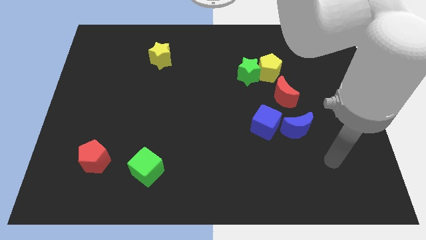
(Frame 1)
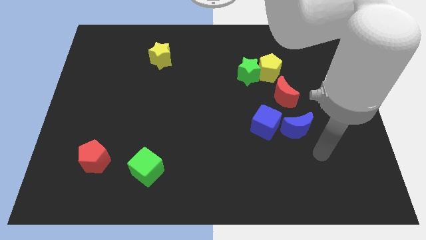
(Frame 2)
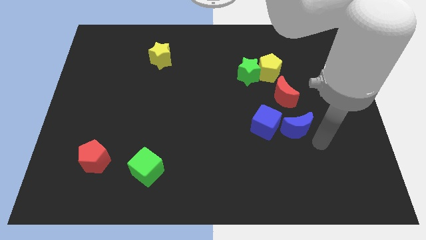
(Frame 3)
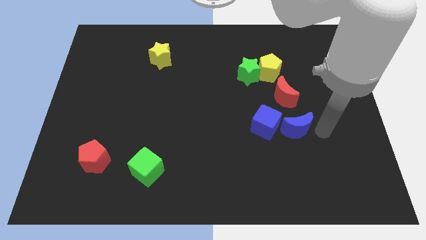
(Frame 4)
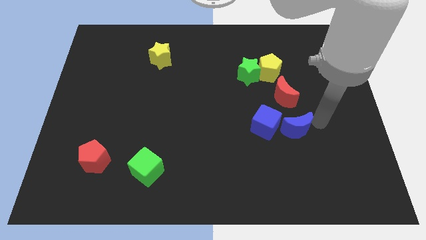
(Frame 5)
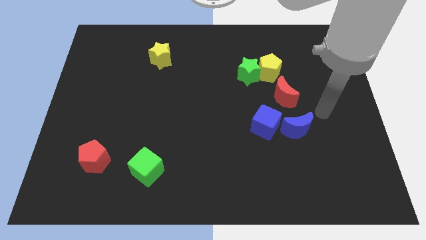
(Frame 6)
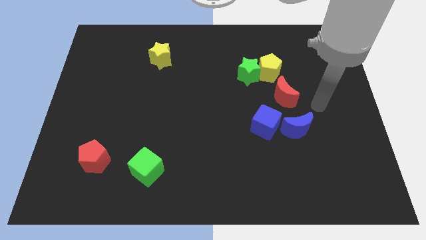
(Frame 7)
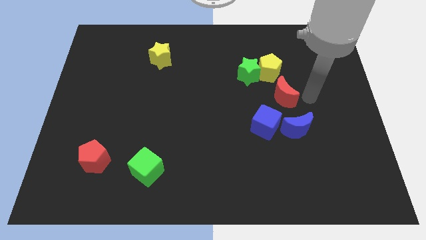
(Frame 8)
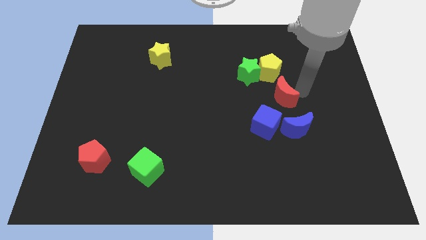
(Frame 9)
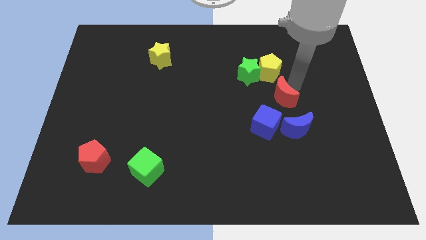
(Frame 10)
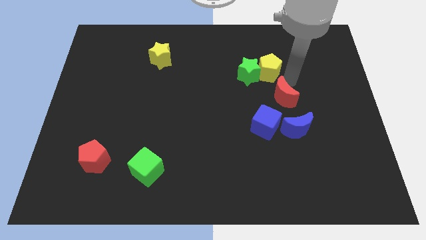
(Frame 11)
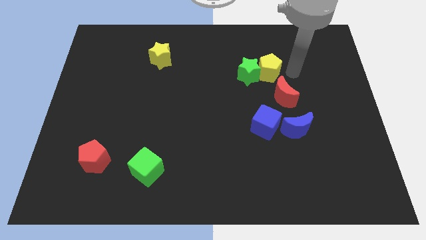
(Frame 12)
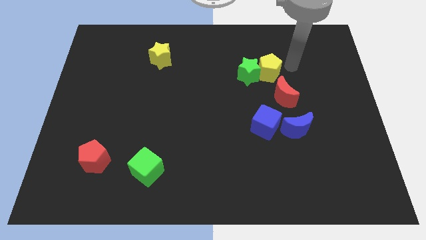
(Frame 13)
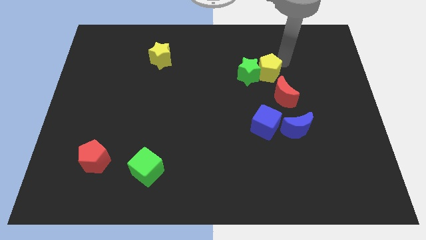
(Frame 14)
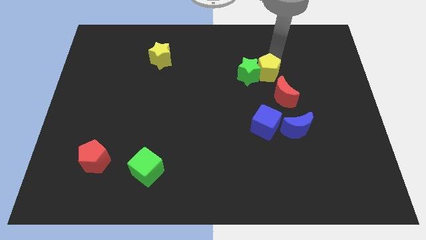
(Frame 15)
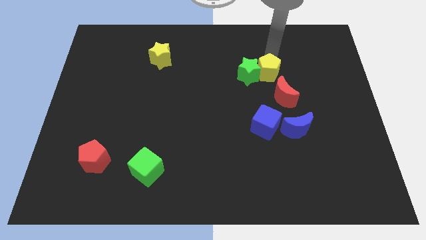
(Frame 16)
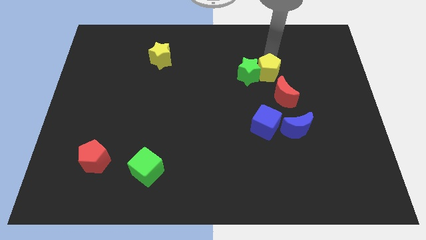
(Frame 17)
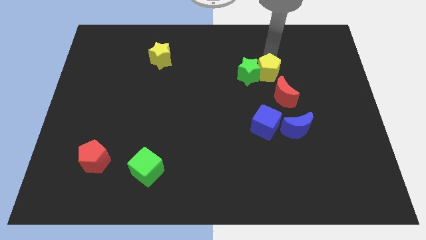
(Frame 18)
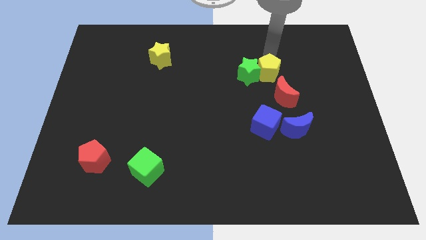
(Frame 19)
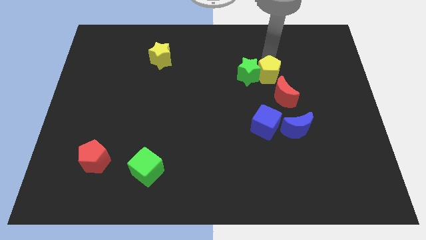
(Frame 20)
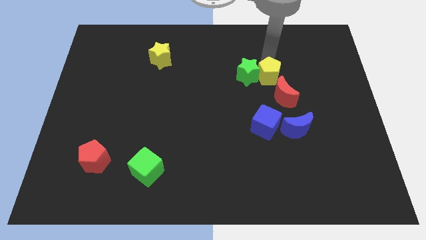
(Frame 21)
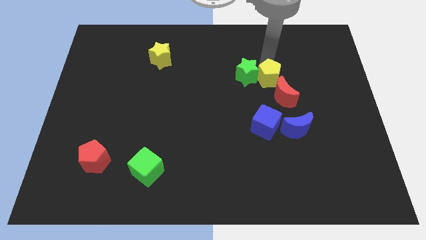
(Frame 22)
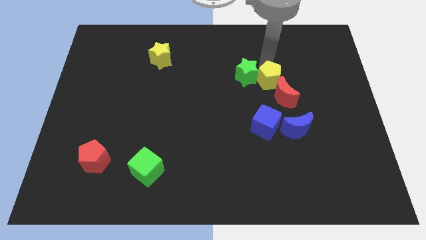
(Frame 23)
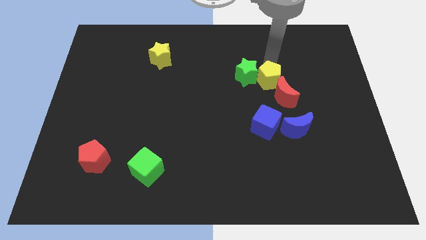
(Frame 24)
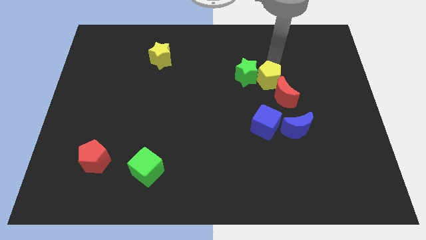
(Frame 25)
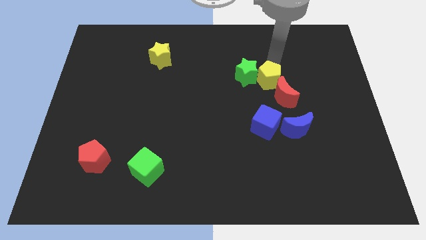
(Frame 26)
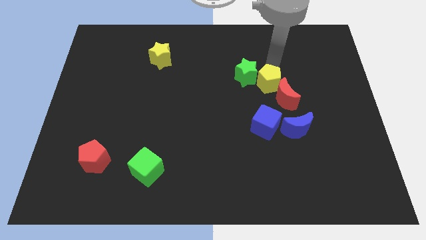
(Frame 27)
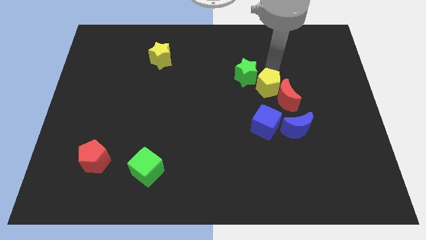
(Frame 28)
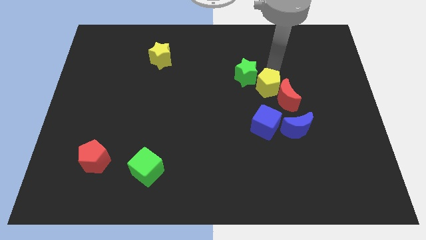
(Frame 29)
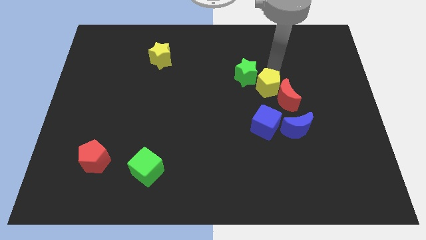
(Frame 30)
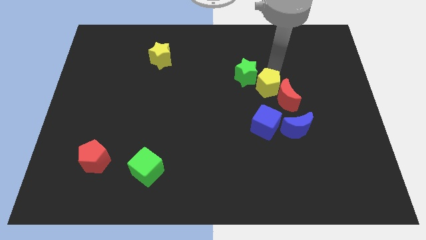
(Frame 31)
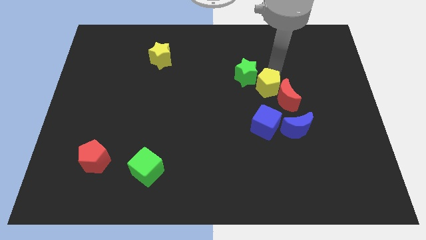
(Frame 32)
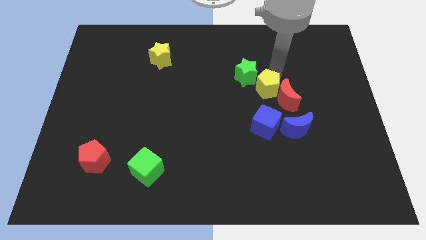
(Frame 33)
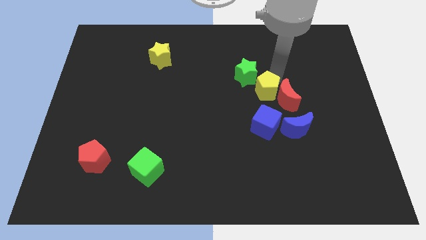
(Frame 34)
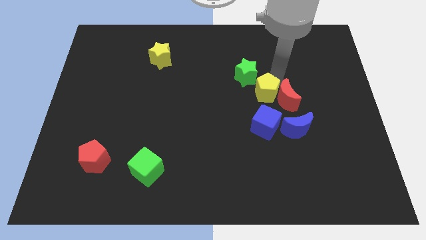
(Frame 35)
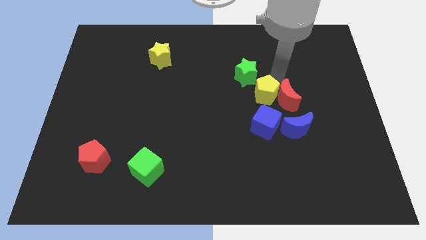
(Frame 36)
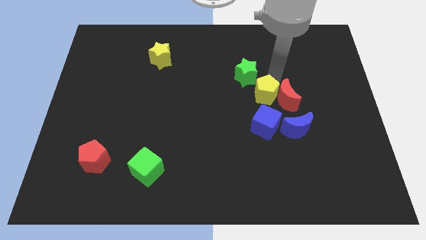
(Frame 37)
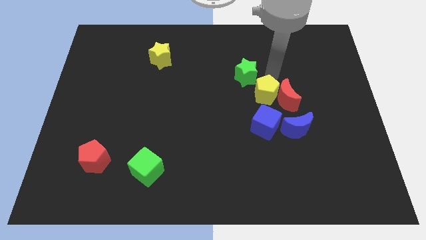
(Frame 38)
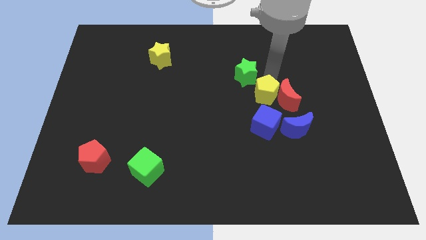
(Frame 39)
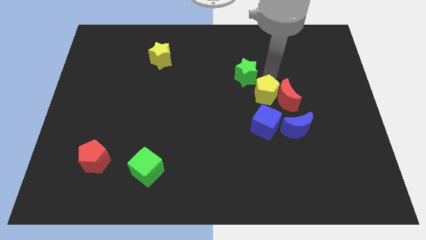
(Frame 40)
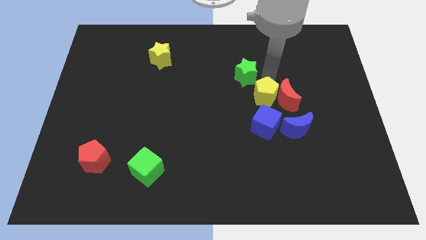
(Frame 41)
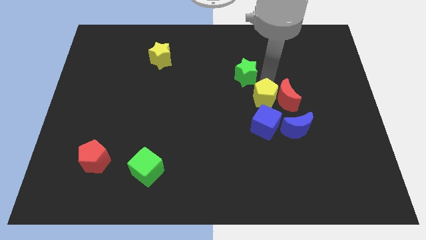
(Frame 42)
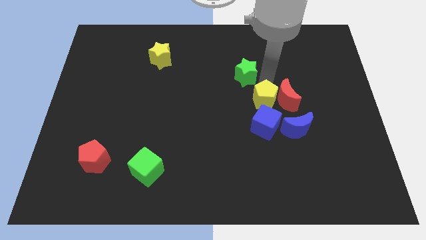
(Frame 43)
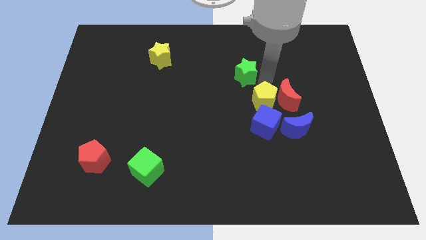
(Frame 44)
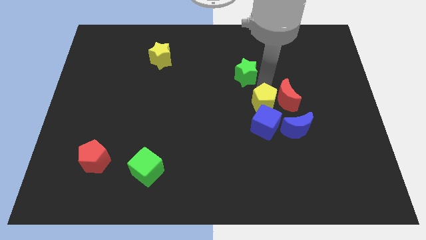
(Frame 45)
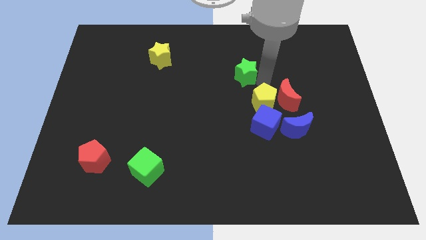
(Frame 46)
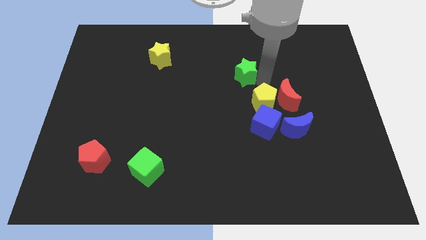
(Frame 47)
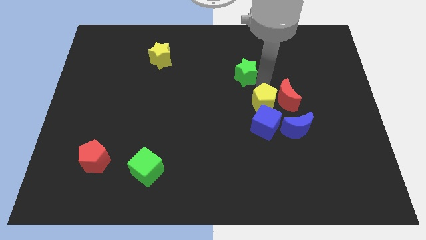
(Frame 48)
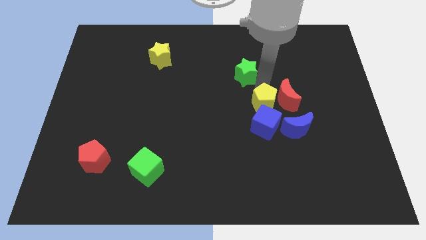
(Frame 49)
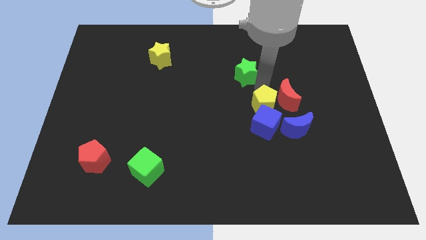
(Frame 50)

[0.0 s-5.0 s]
move the yellow pentagon next to the blue cube

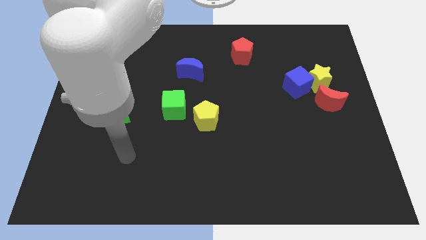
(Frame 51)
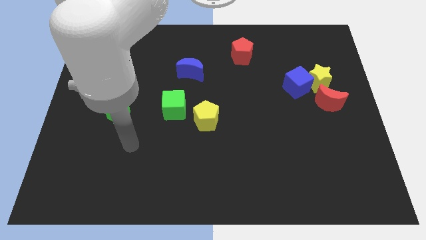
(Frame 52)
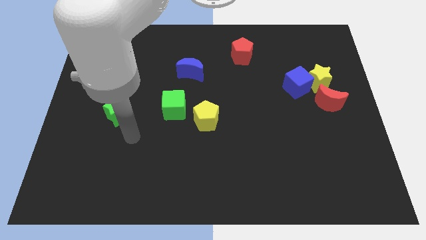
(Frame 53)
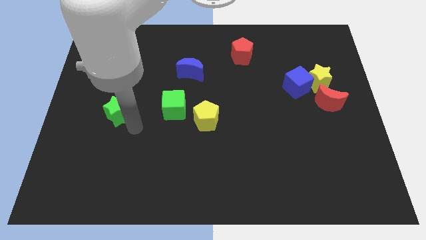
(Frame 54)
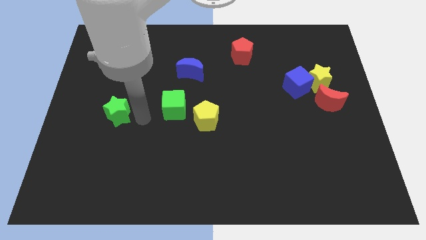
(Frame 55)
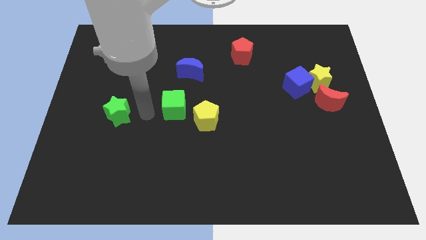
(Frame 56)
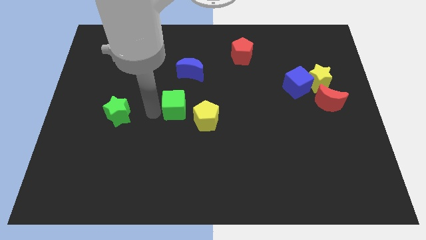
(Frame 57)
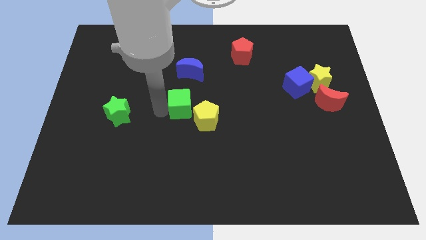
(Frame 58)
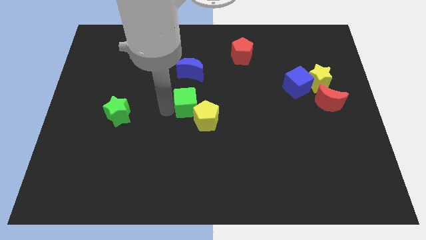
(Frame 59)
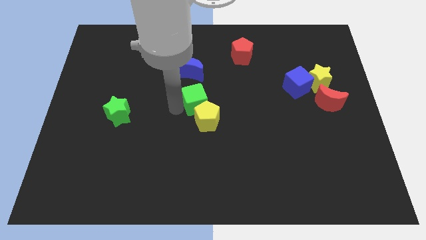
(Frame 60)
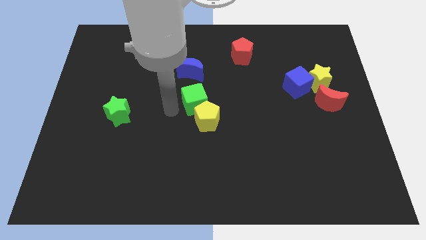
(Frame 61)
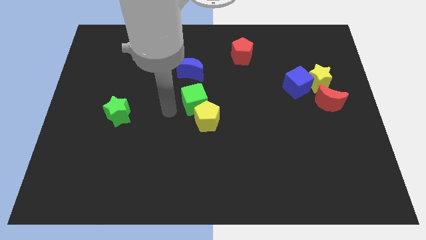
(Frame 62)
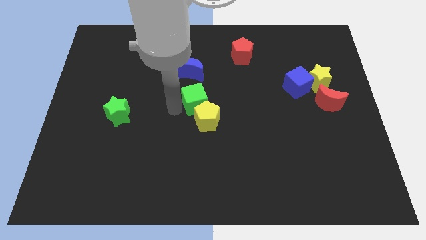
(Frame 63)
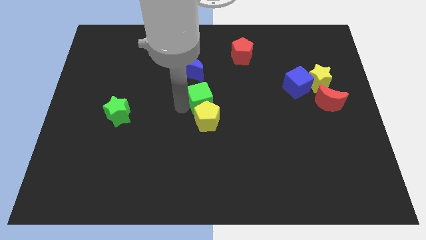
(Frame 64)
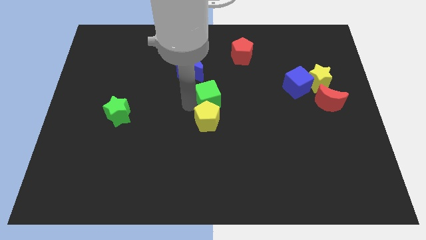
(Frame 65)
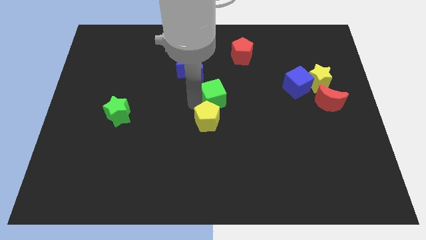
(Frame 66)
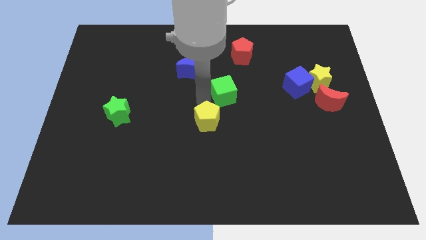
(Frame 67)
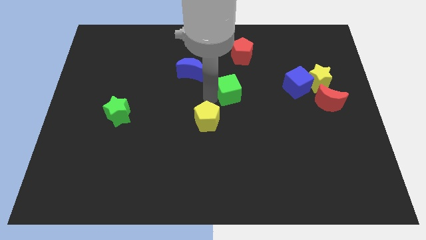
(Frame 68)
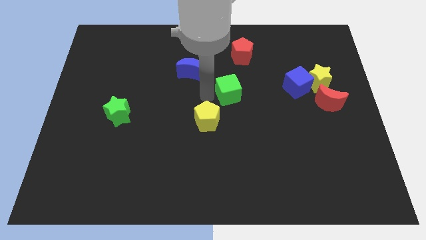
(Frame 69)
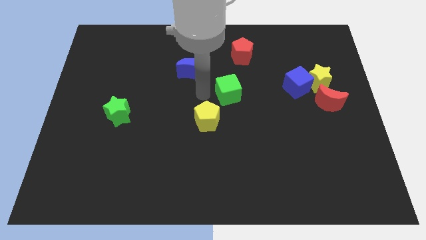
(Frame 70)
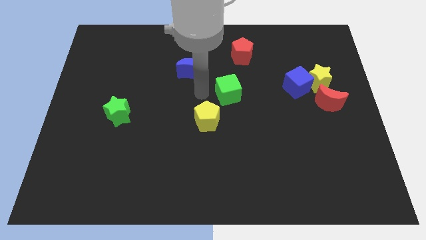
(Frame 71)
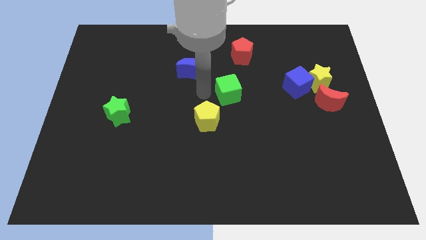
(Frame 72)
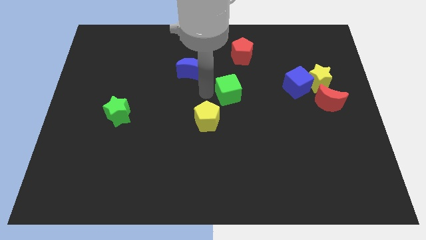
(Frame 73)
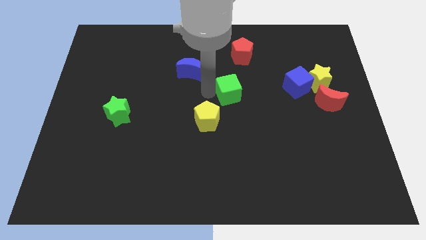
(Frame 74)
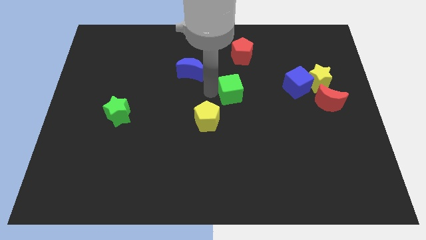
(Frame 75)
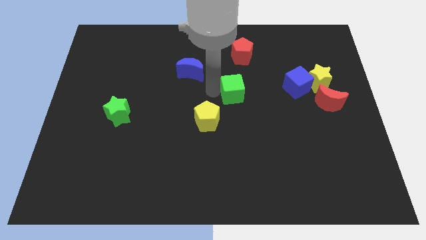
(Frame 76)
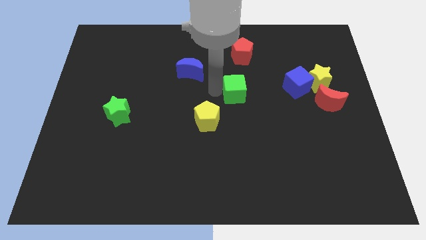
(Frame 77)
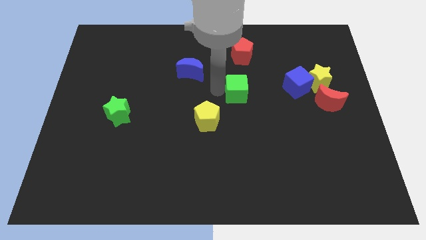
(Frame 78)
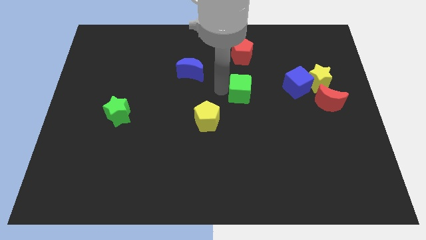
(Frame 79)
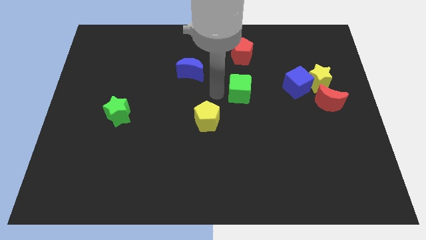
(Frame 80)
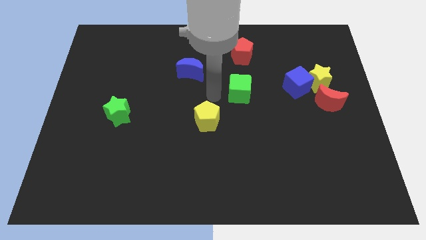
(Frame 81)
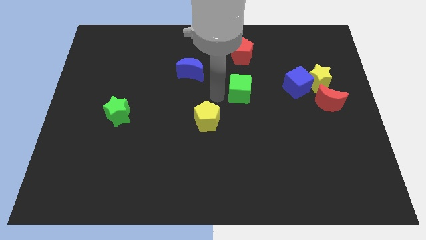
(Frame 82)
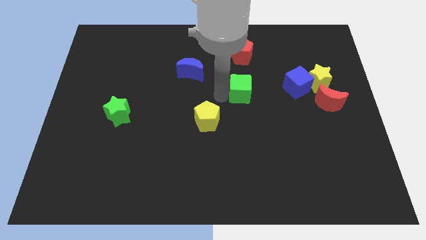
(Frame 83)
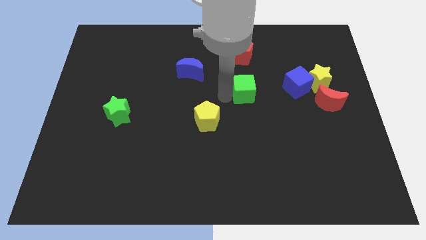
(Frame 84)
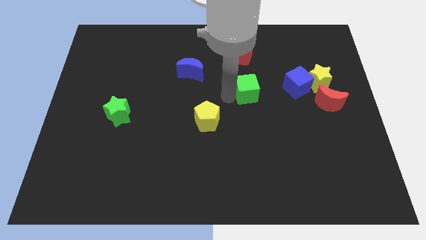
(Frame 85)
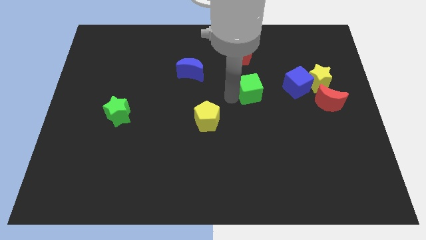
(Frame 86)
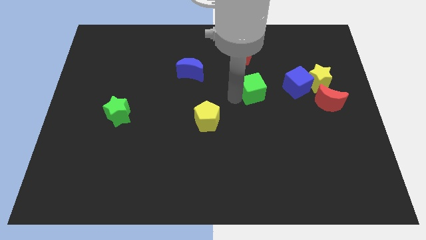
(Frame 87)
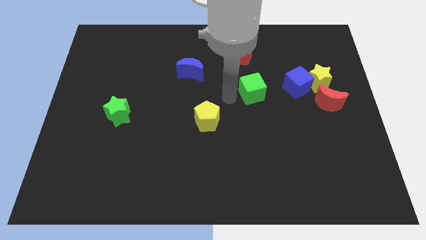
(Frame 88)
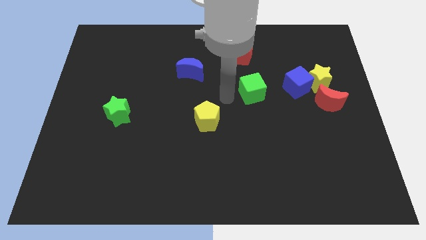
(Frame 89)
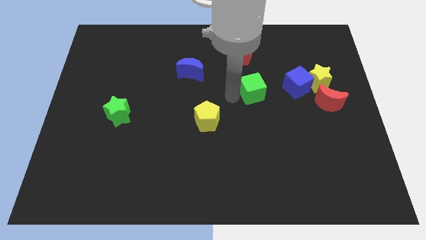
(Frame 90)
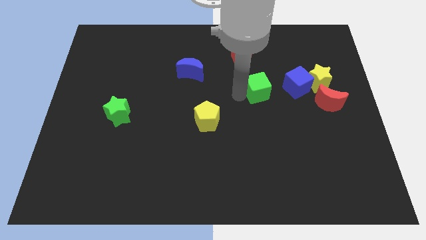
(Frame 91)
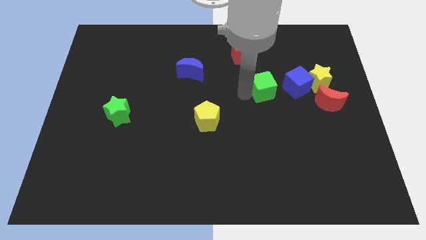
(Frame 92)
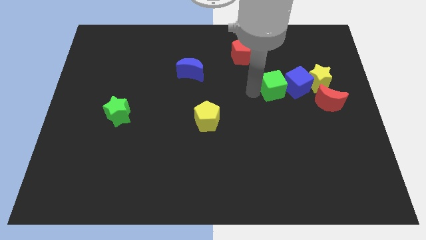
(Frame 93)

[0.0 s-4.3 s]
slide the green cube close to the blue cube
